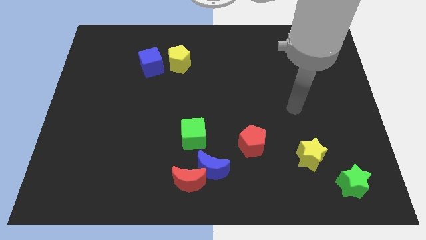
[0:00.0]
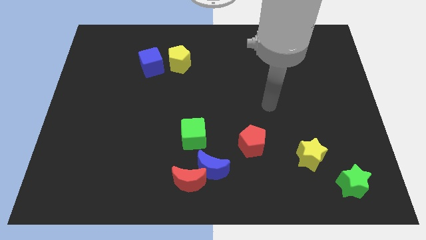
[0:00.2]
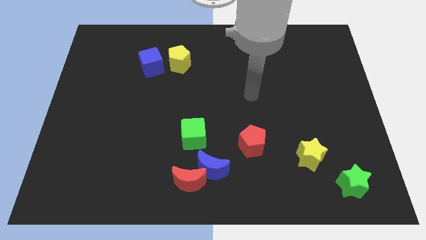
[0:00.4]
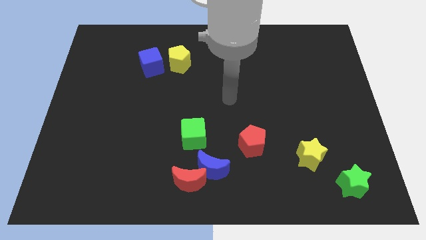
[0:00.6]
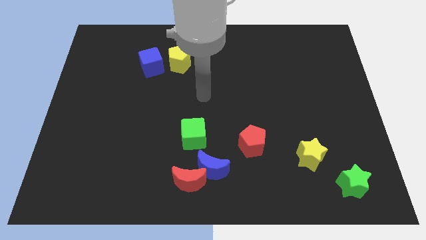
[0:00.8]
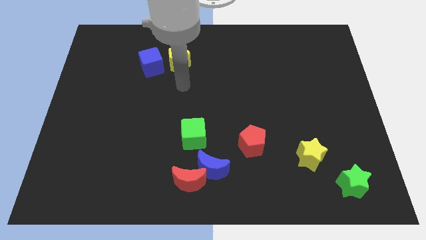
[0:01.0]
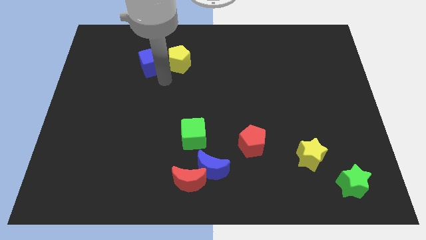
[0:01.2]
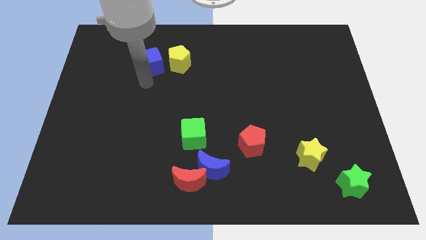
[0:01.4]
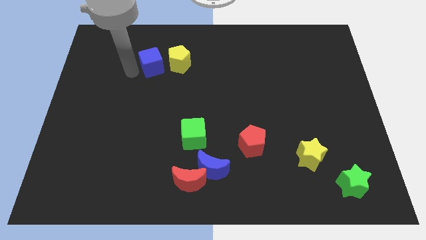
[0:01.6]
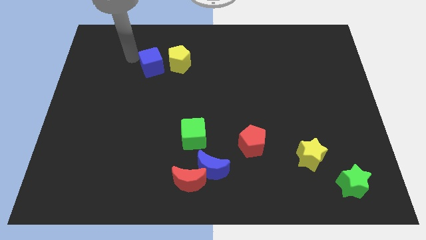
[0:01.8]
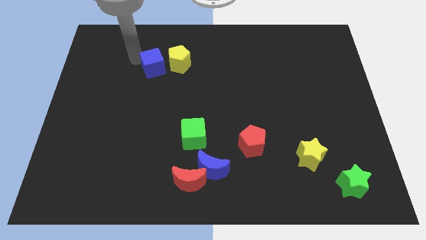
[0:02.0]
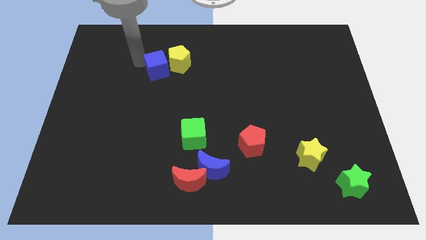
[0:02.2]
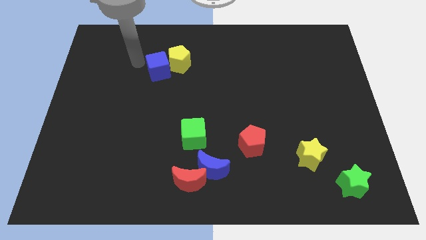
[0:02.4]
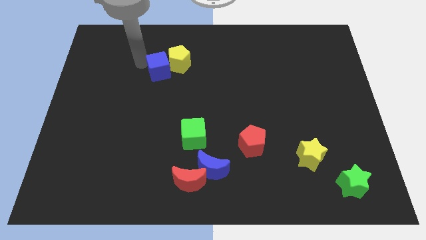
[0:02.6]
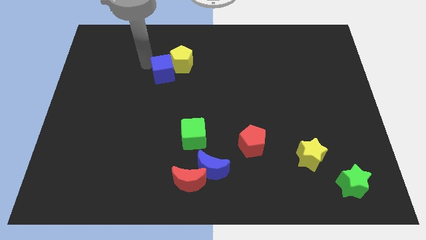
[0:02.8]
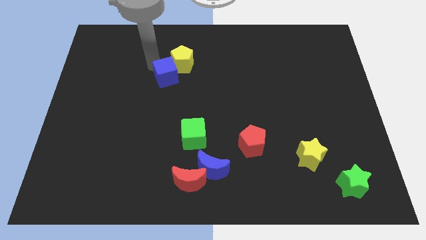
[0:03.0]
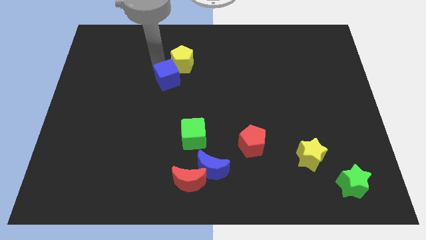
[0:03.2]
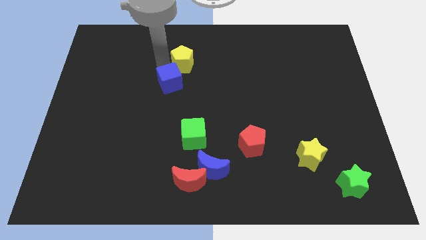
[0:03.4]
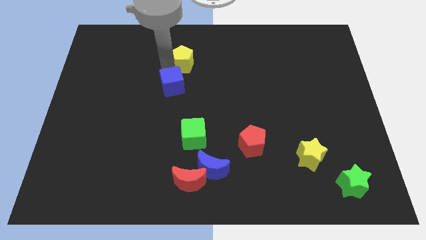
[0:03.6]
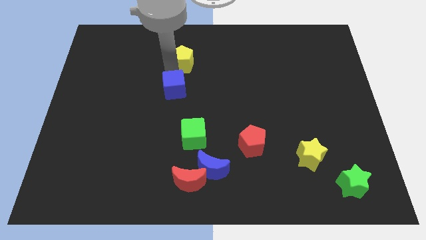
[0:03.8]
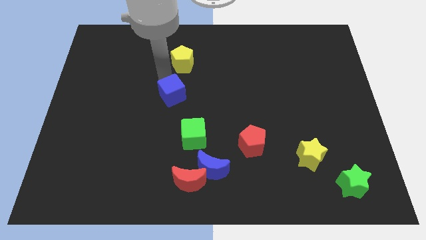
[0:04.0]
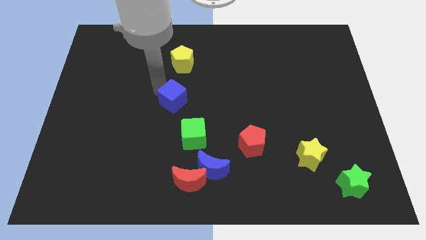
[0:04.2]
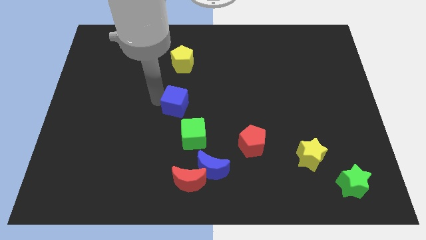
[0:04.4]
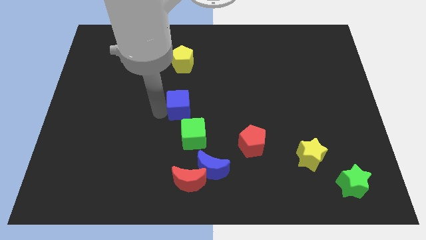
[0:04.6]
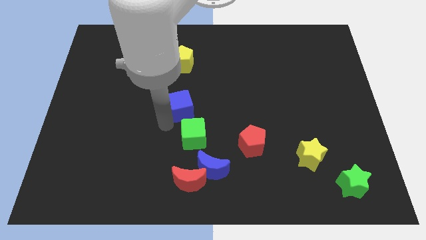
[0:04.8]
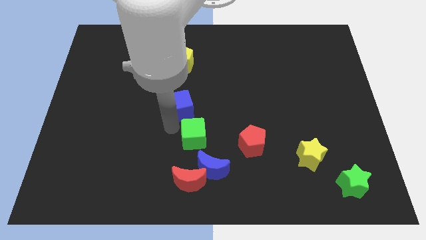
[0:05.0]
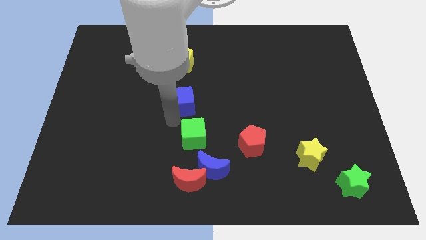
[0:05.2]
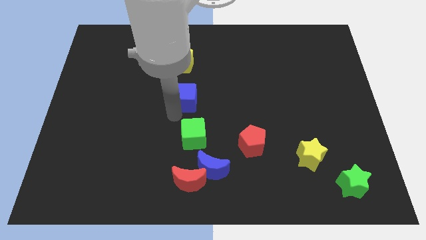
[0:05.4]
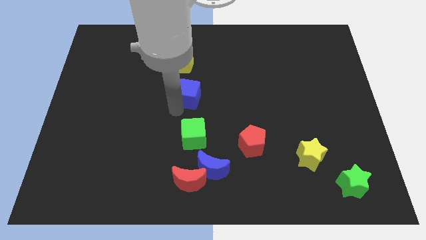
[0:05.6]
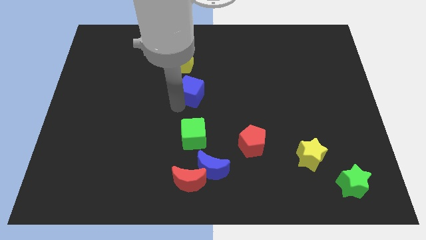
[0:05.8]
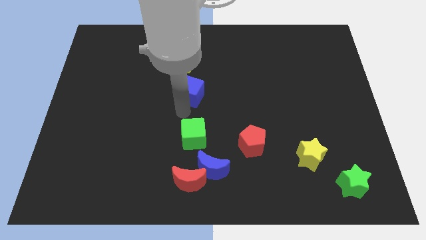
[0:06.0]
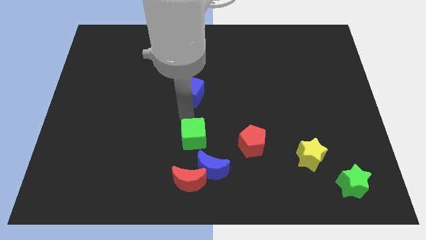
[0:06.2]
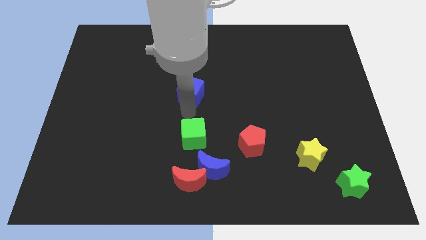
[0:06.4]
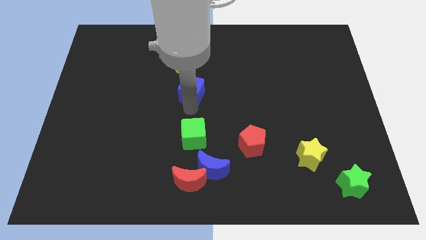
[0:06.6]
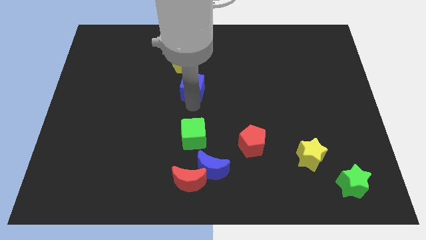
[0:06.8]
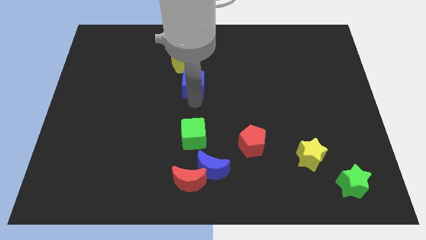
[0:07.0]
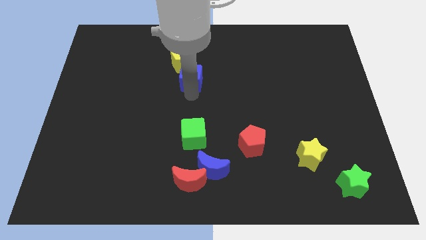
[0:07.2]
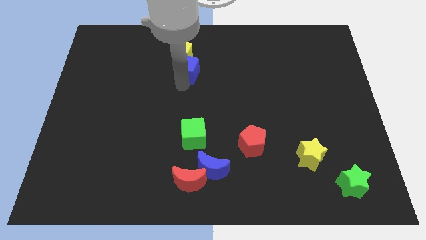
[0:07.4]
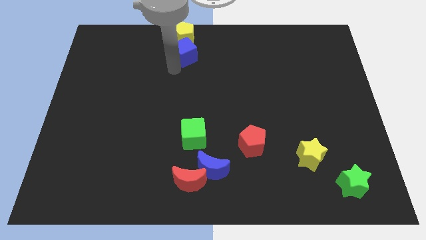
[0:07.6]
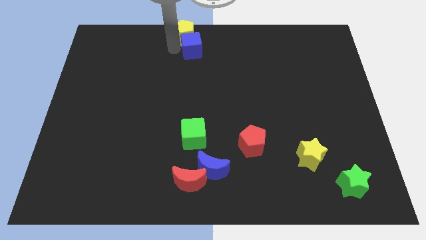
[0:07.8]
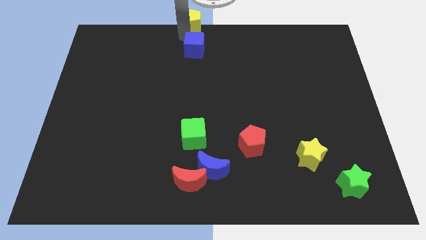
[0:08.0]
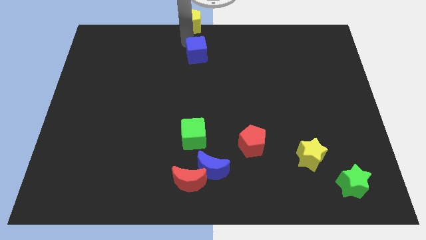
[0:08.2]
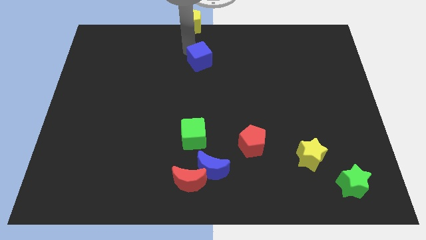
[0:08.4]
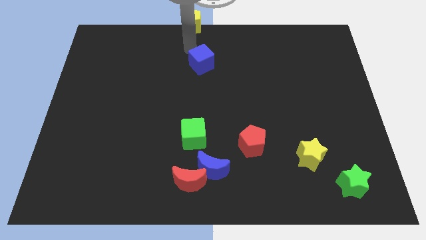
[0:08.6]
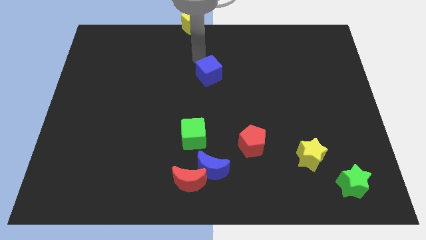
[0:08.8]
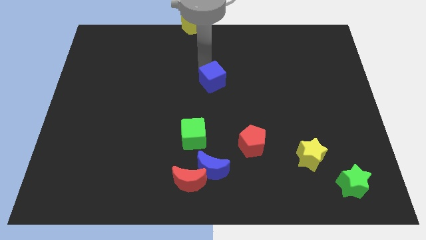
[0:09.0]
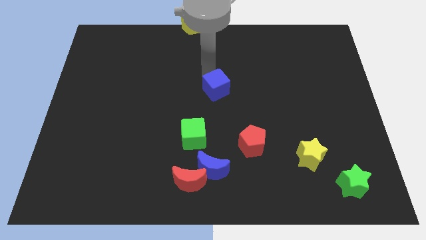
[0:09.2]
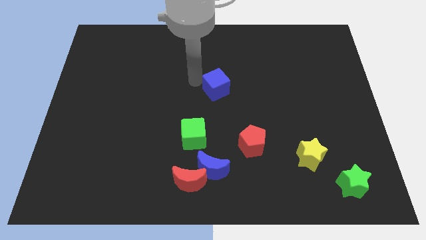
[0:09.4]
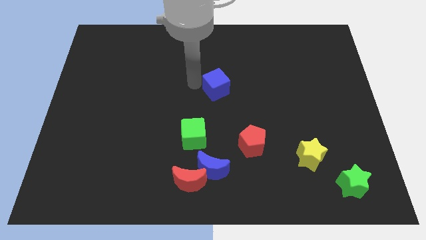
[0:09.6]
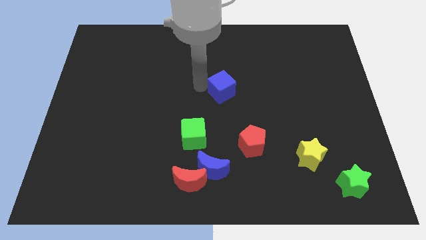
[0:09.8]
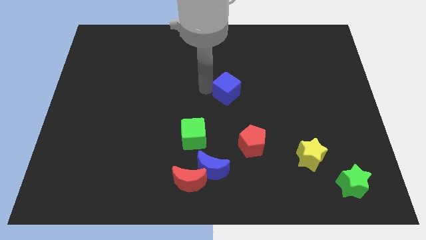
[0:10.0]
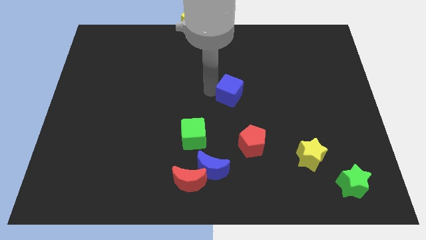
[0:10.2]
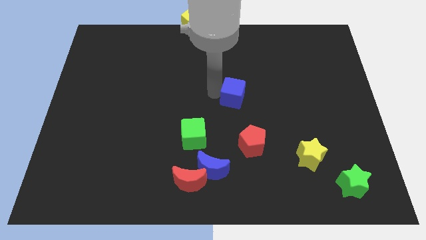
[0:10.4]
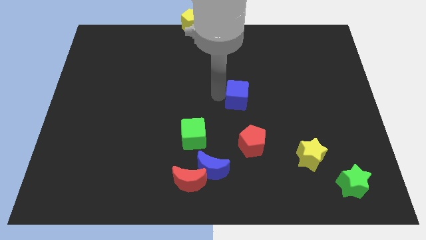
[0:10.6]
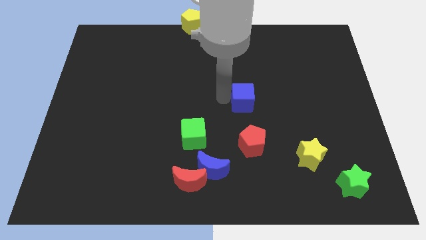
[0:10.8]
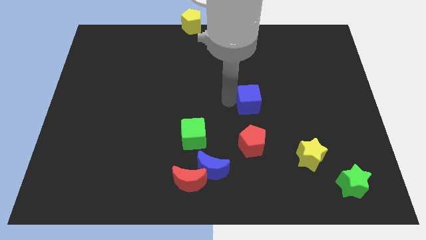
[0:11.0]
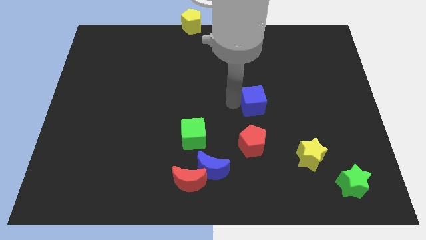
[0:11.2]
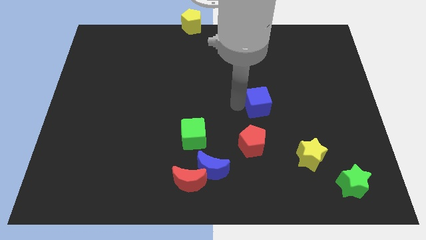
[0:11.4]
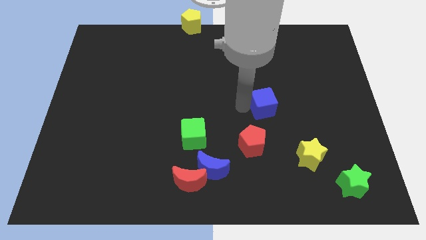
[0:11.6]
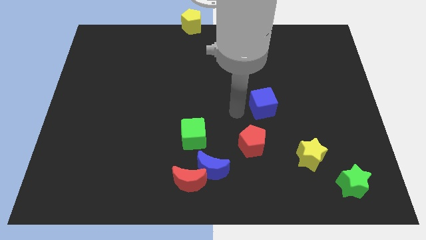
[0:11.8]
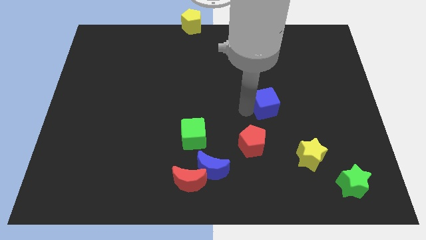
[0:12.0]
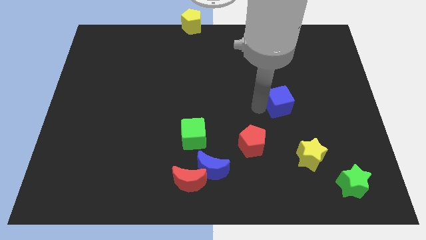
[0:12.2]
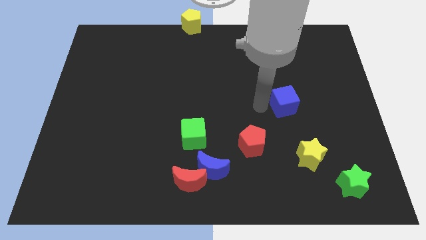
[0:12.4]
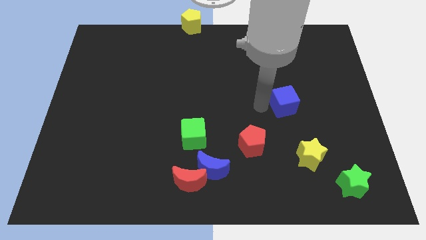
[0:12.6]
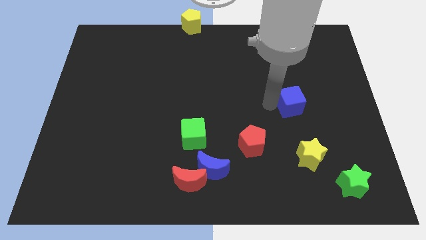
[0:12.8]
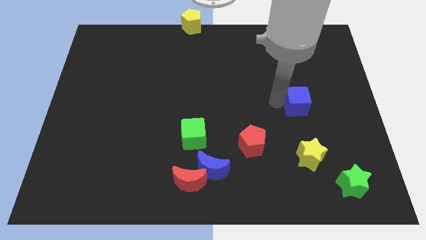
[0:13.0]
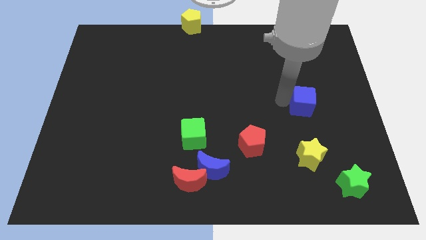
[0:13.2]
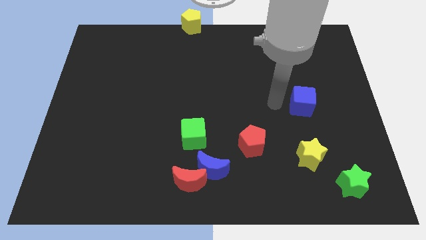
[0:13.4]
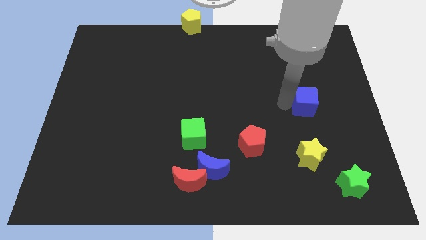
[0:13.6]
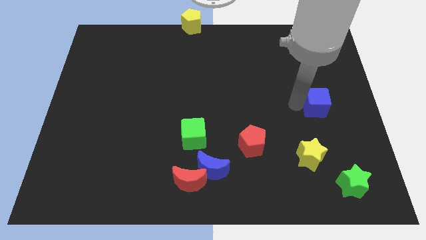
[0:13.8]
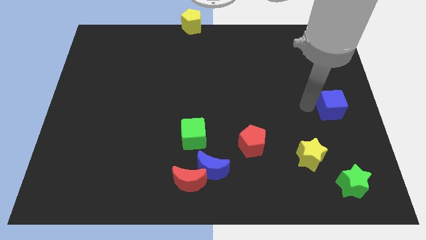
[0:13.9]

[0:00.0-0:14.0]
move the blue cube to the center right
